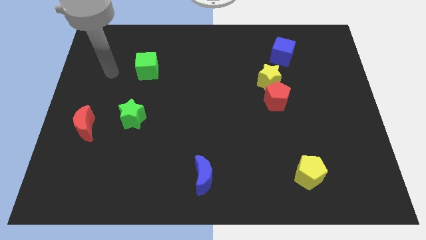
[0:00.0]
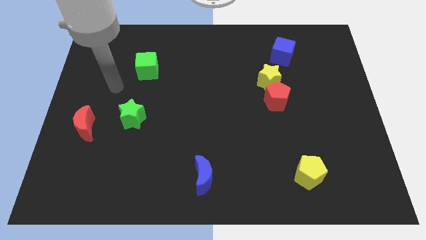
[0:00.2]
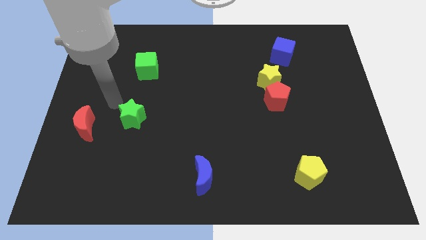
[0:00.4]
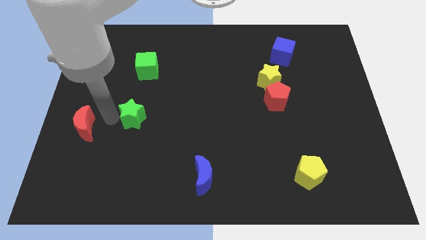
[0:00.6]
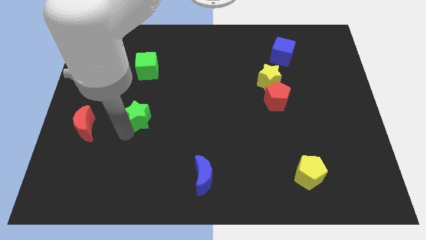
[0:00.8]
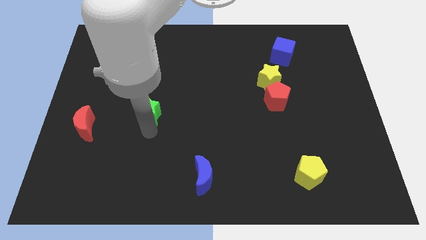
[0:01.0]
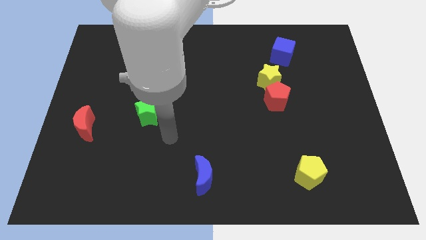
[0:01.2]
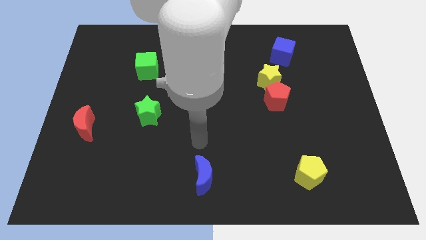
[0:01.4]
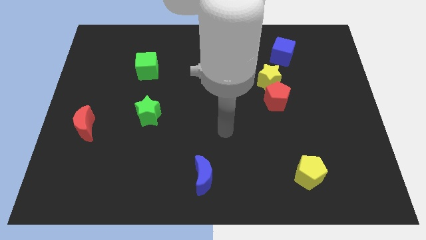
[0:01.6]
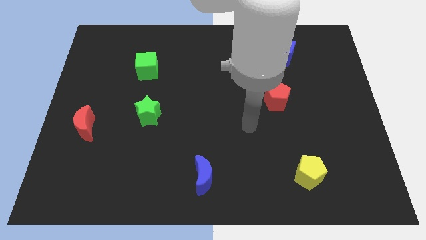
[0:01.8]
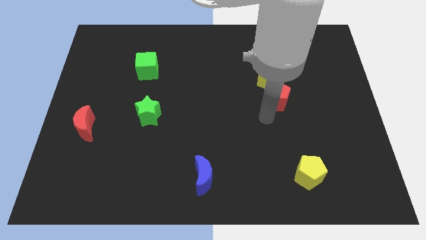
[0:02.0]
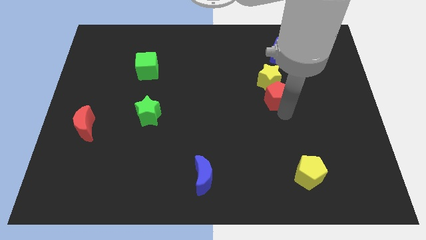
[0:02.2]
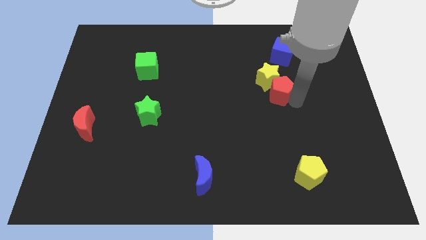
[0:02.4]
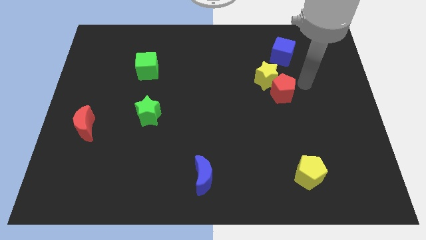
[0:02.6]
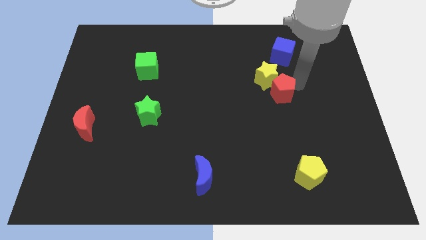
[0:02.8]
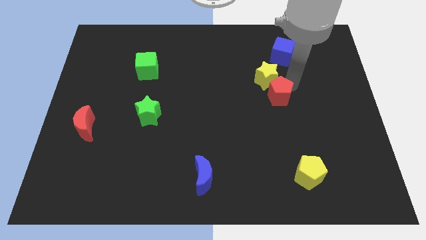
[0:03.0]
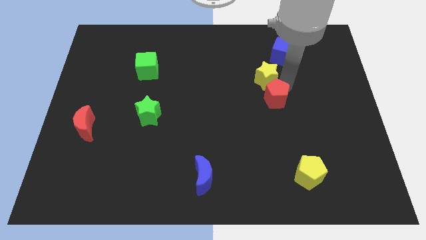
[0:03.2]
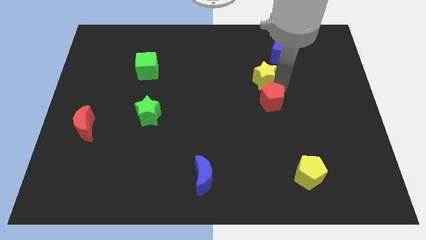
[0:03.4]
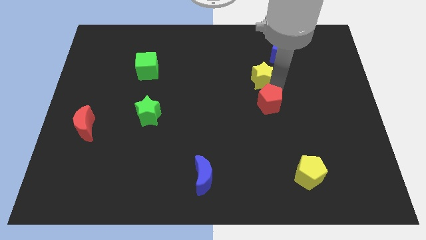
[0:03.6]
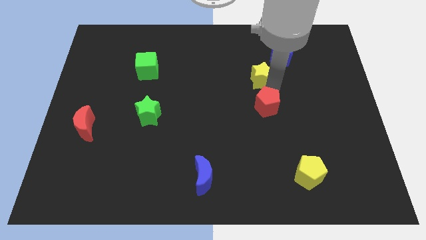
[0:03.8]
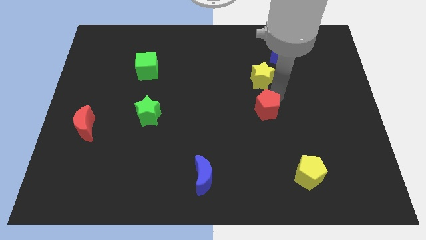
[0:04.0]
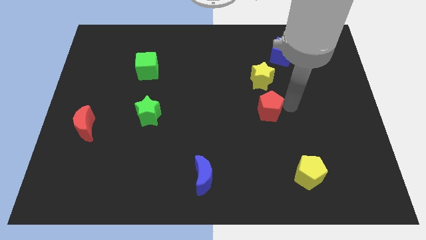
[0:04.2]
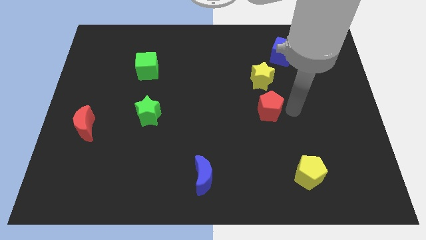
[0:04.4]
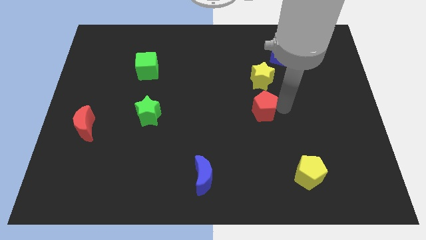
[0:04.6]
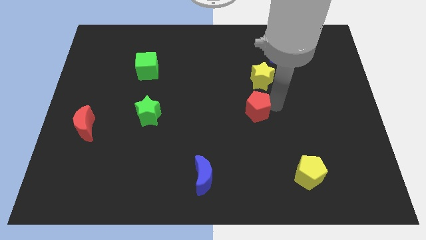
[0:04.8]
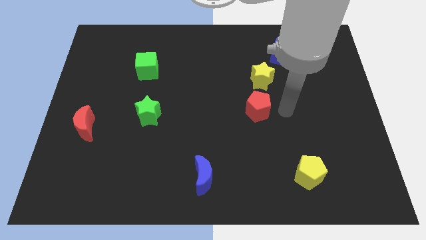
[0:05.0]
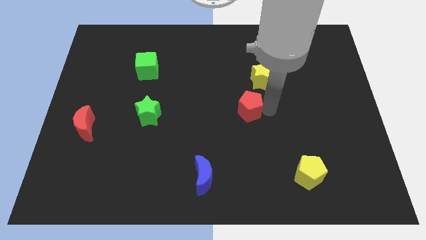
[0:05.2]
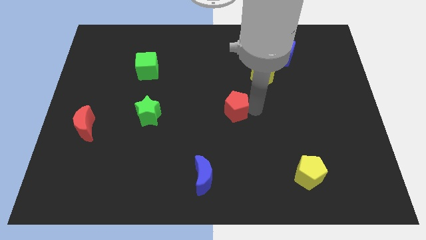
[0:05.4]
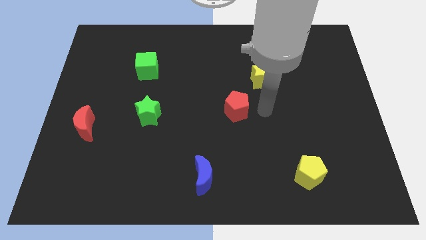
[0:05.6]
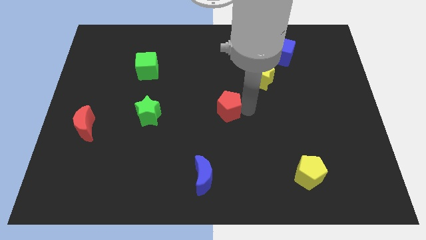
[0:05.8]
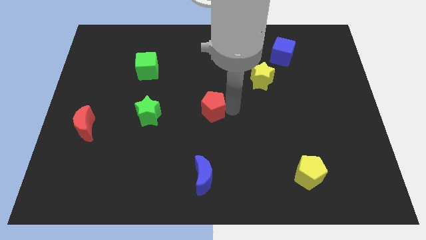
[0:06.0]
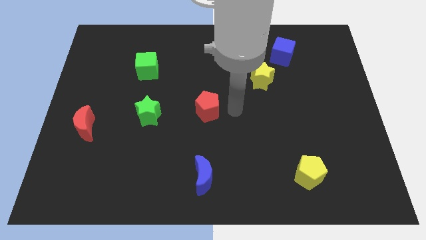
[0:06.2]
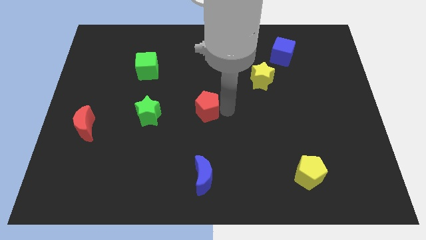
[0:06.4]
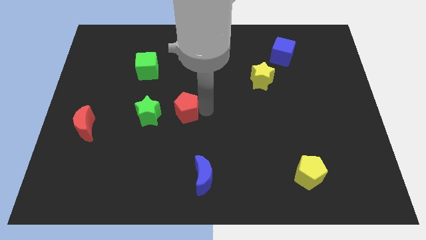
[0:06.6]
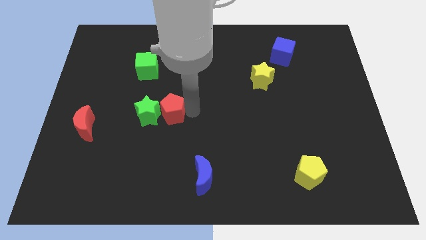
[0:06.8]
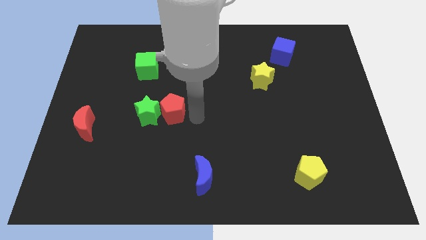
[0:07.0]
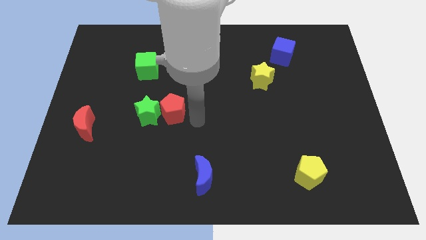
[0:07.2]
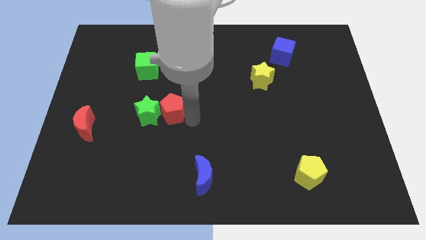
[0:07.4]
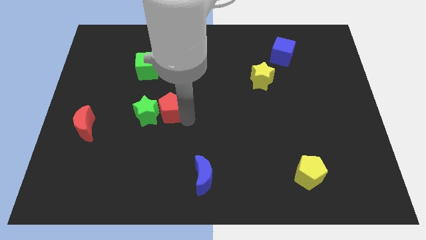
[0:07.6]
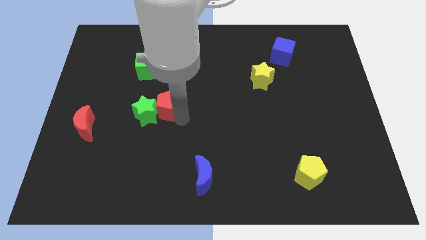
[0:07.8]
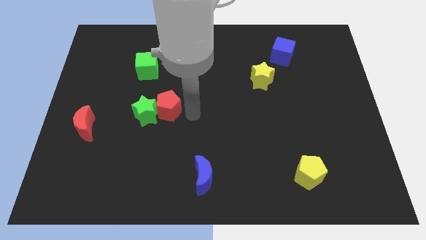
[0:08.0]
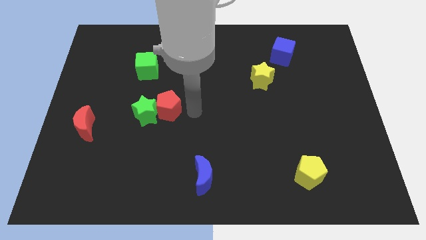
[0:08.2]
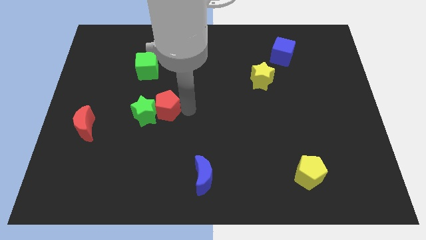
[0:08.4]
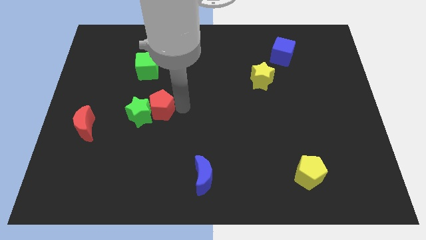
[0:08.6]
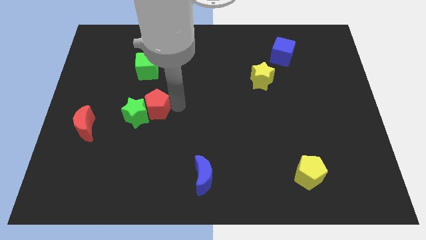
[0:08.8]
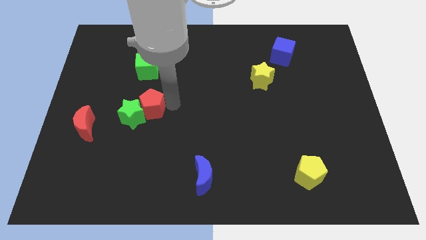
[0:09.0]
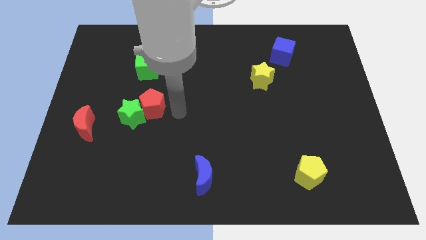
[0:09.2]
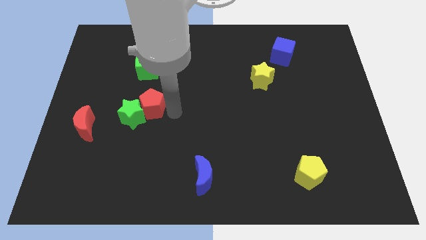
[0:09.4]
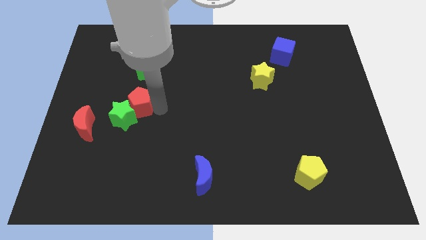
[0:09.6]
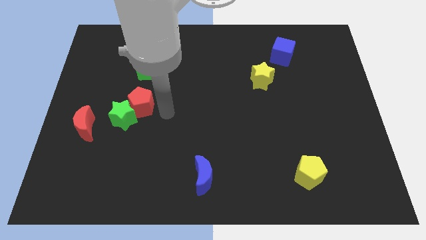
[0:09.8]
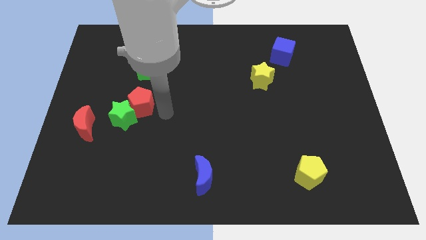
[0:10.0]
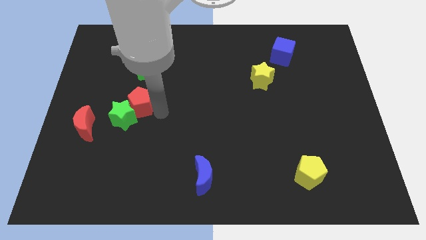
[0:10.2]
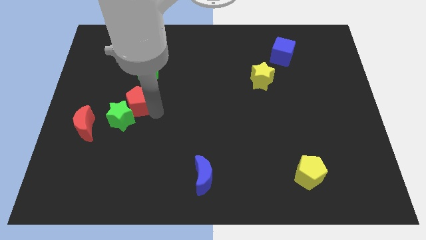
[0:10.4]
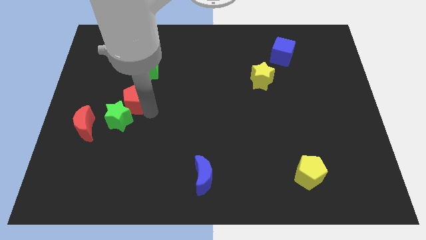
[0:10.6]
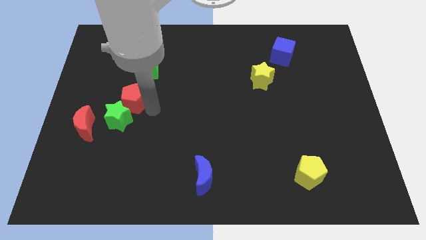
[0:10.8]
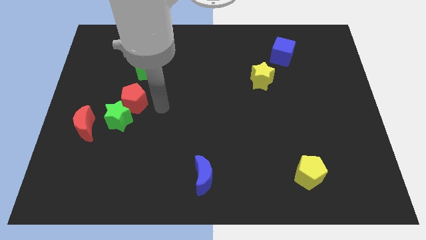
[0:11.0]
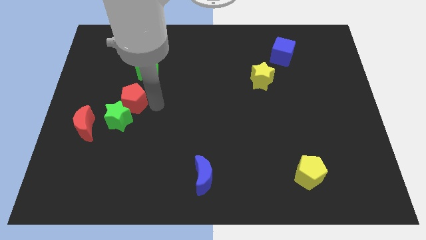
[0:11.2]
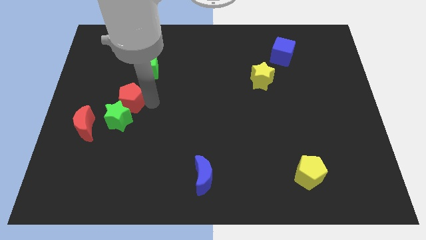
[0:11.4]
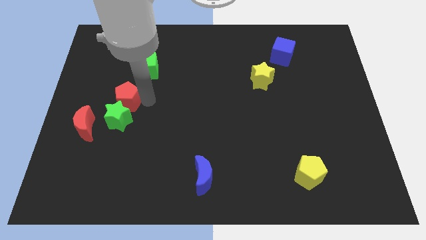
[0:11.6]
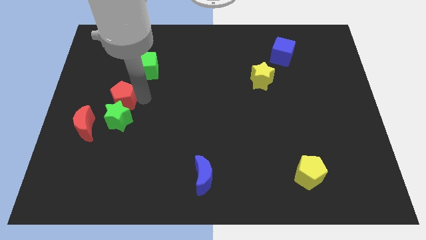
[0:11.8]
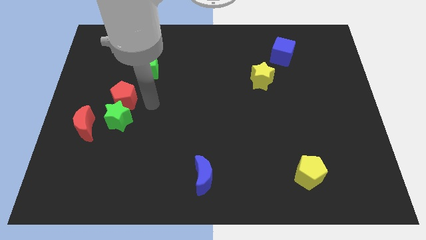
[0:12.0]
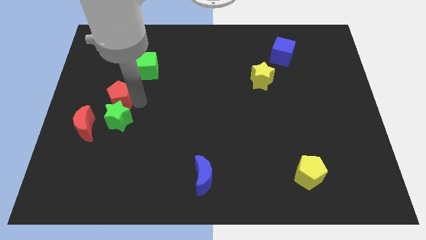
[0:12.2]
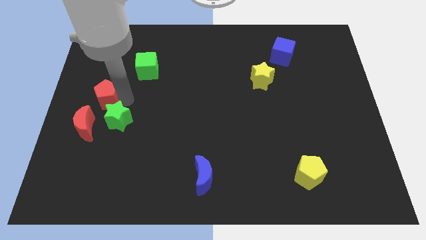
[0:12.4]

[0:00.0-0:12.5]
slide the red pentagon to the center left
